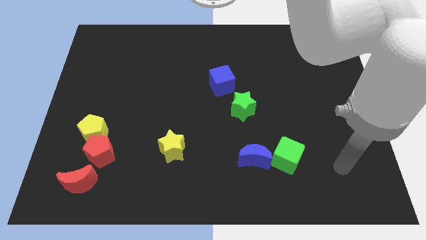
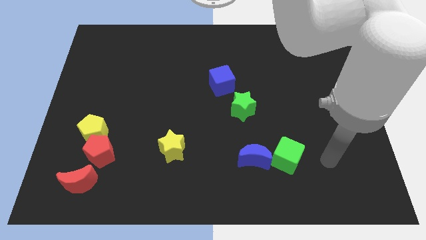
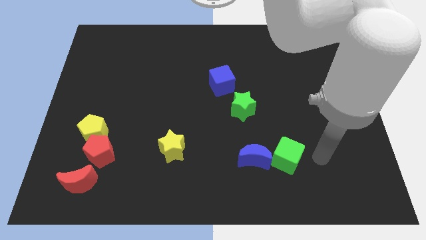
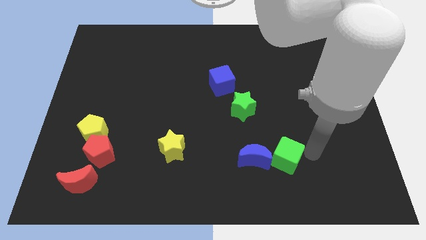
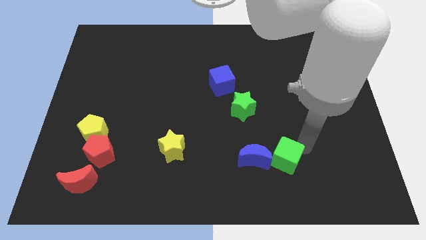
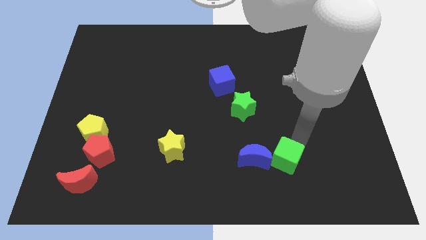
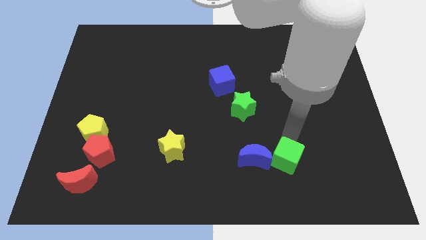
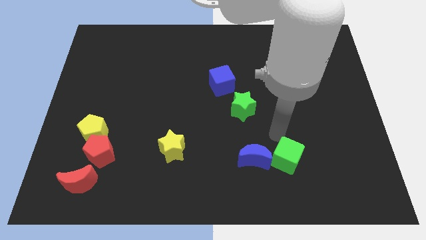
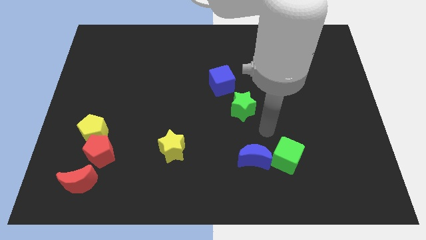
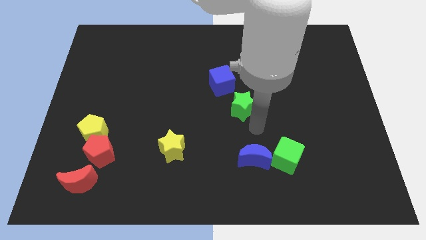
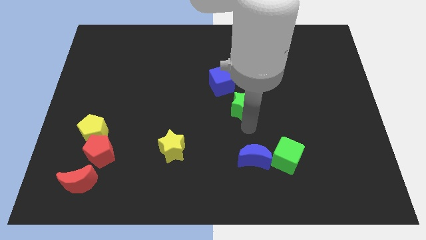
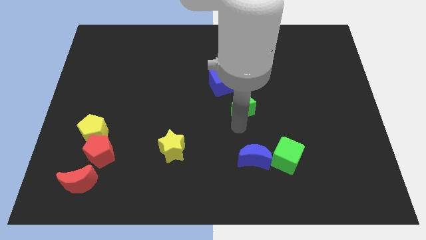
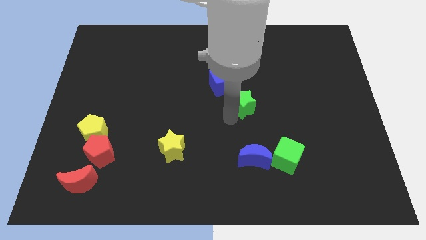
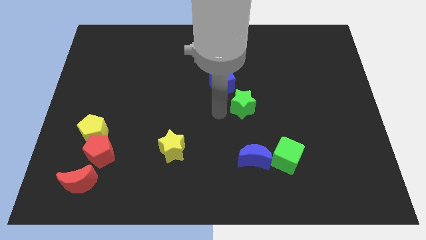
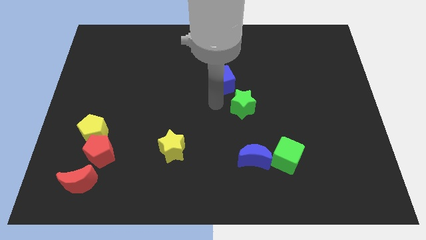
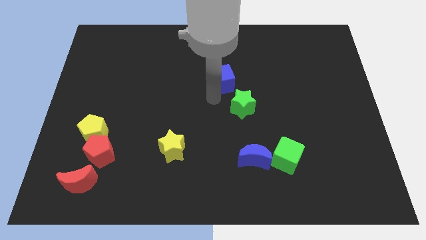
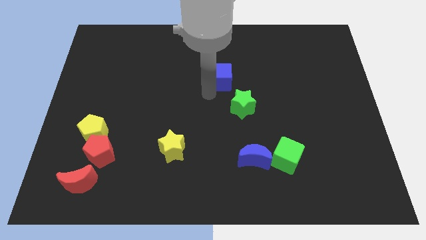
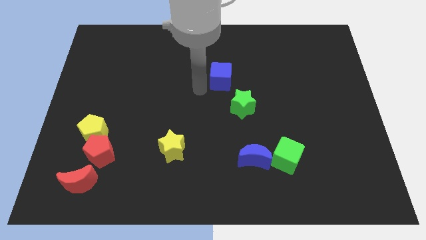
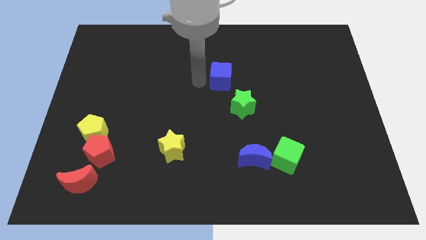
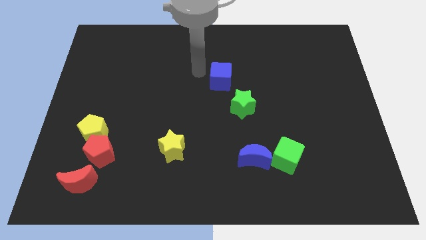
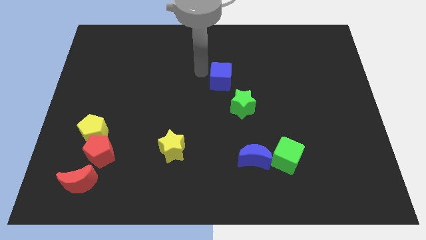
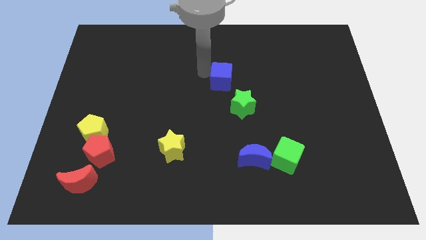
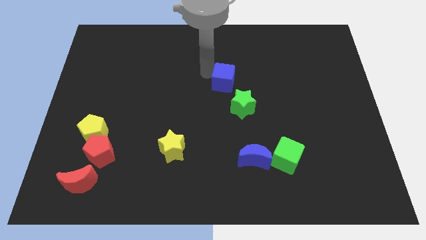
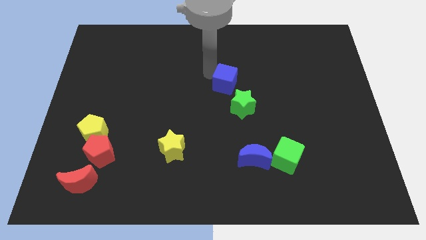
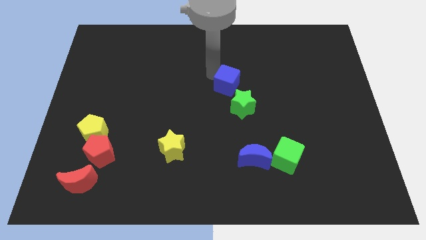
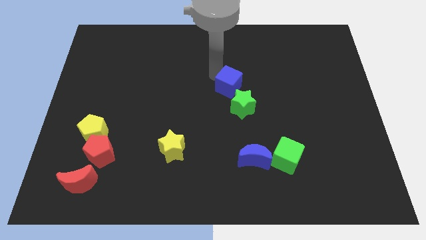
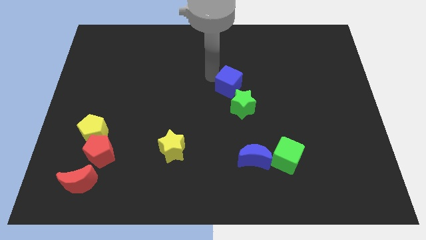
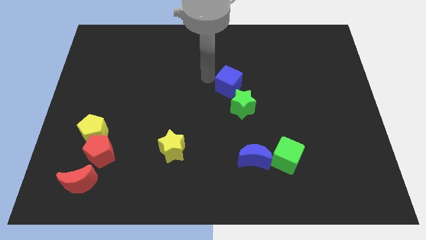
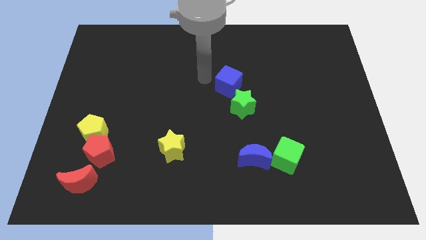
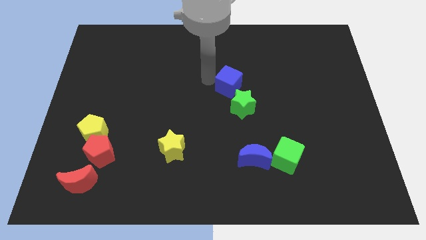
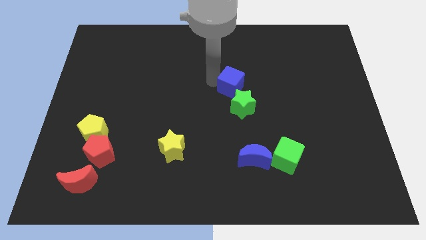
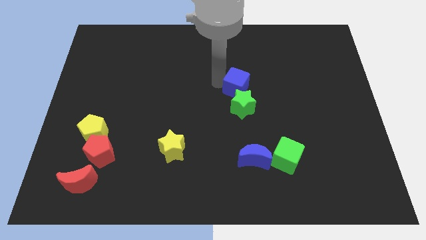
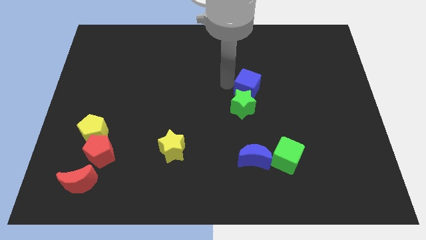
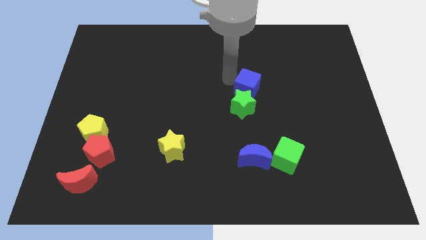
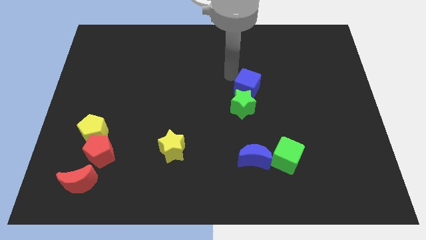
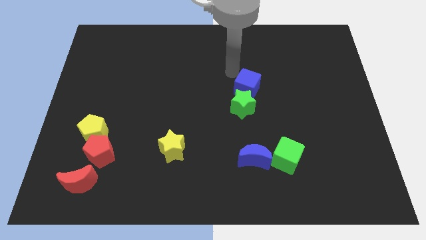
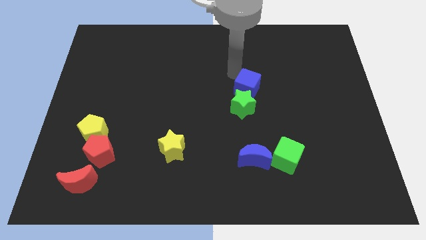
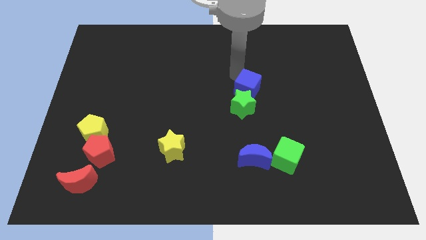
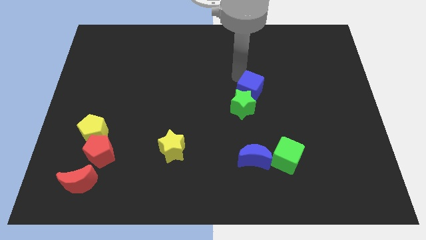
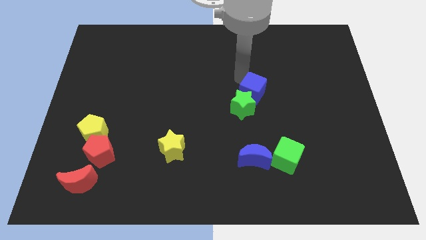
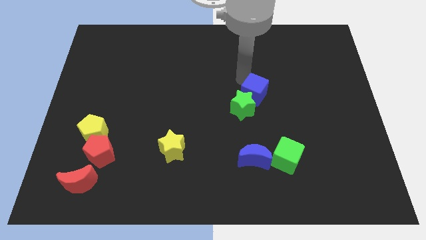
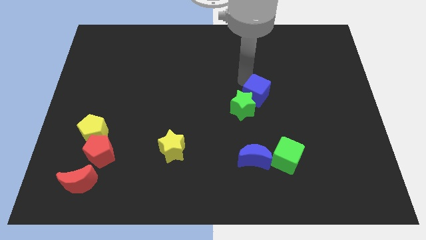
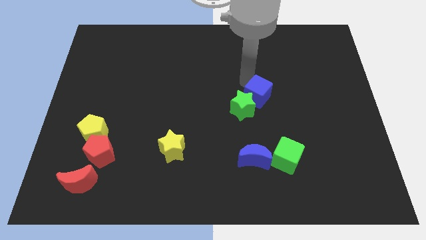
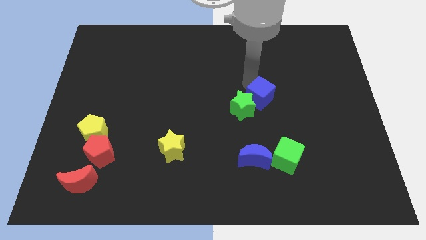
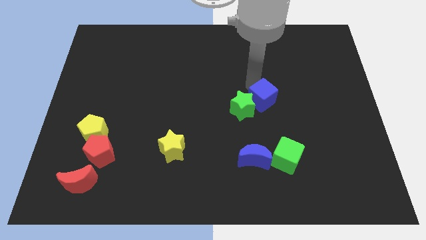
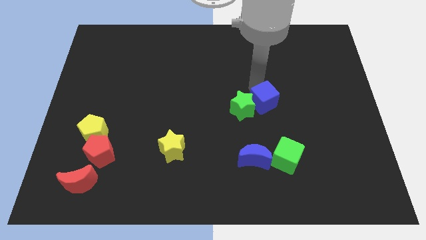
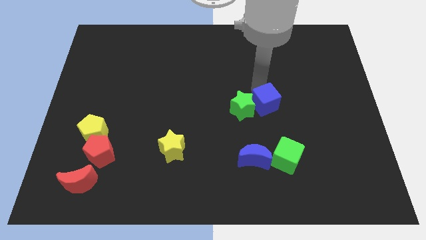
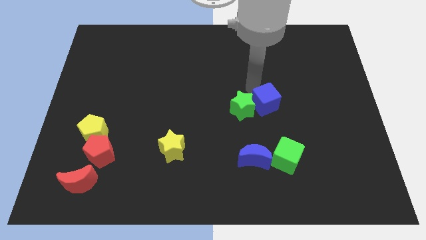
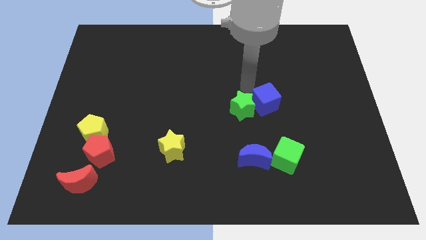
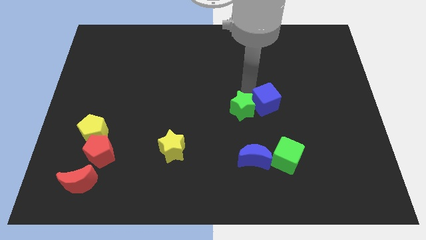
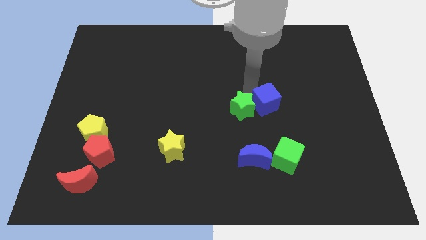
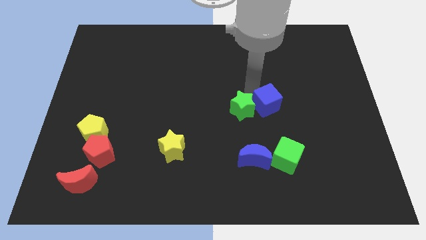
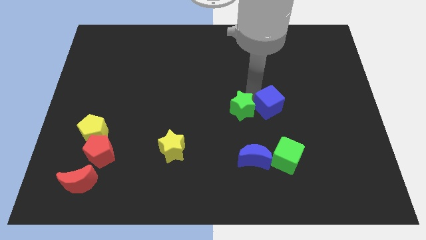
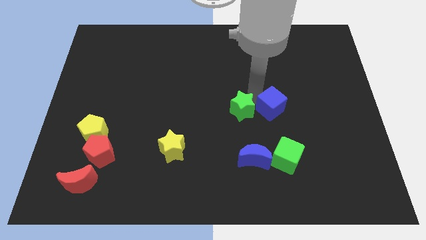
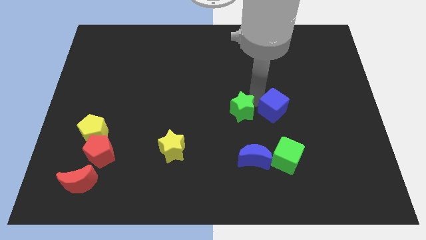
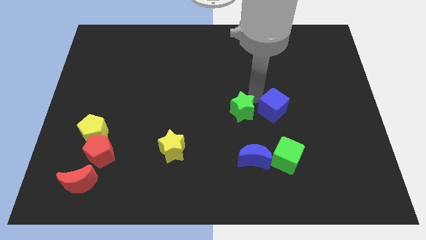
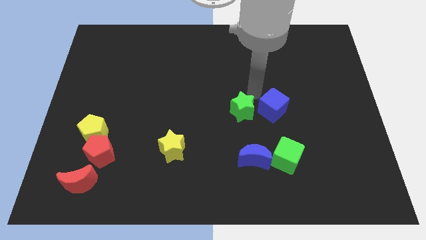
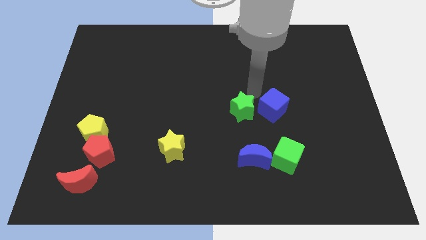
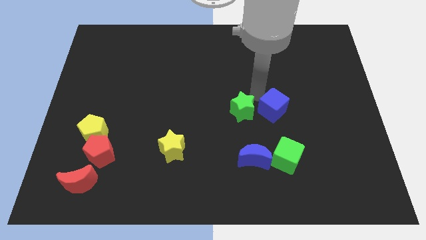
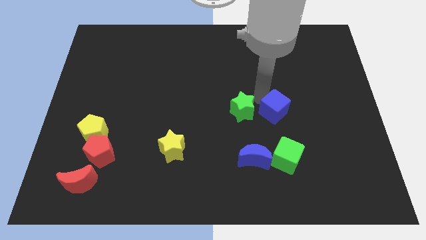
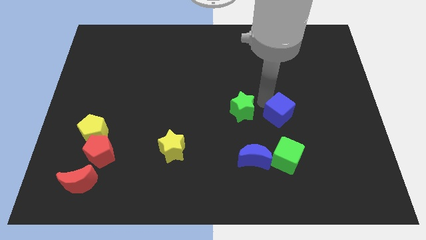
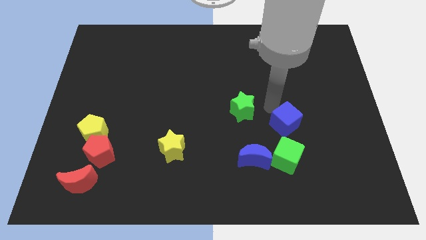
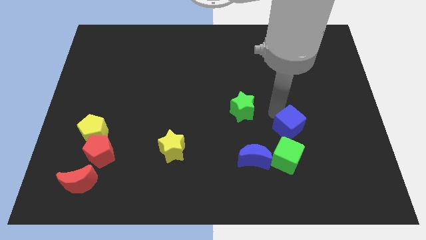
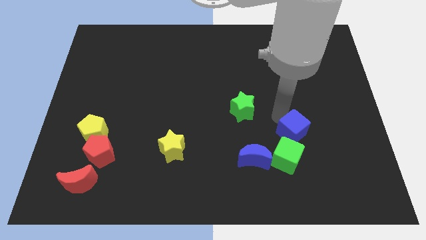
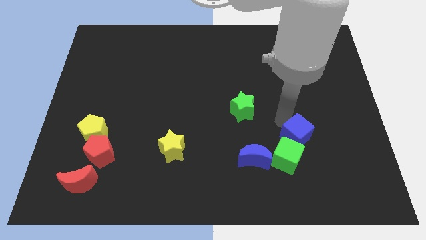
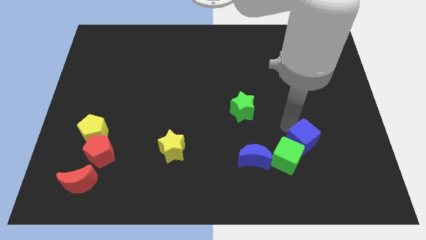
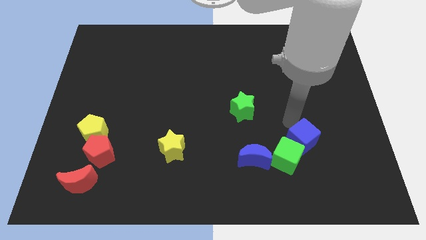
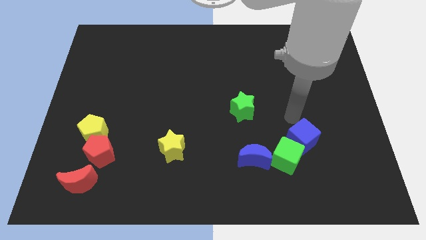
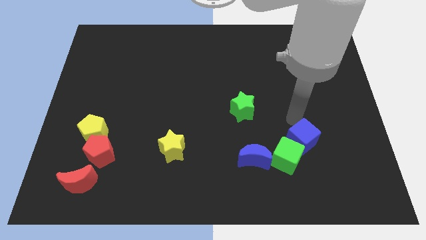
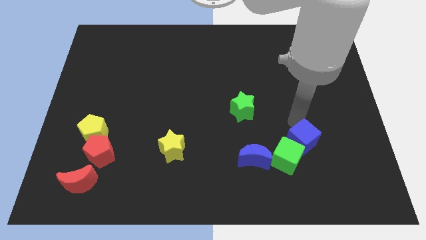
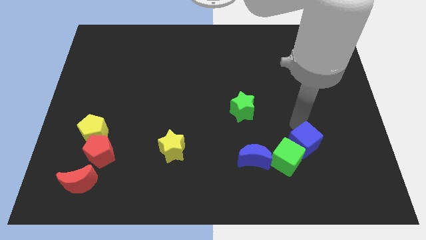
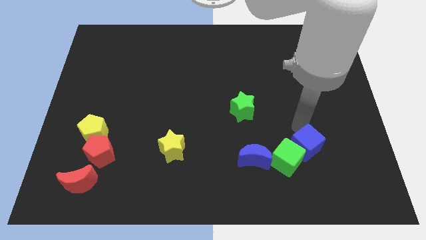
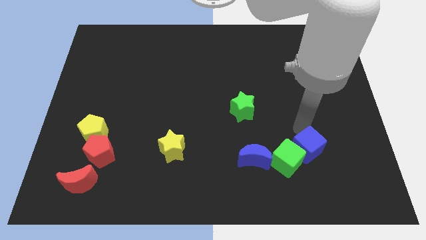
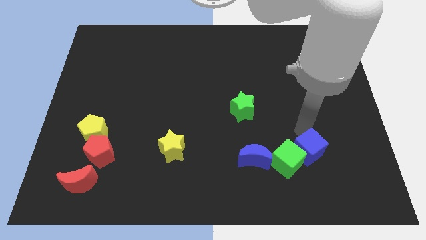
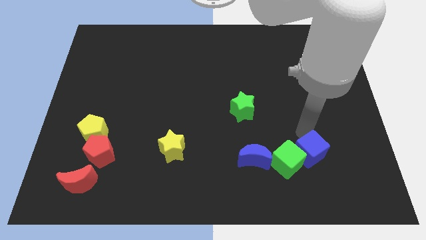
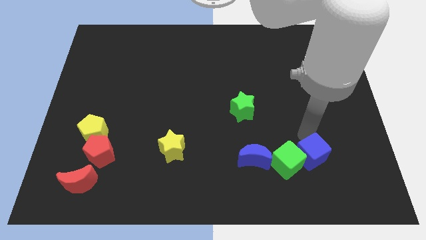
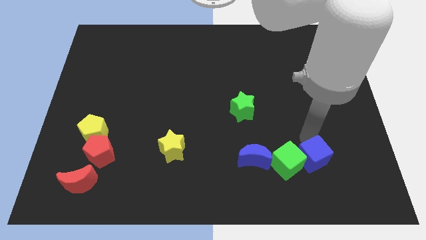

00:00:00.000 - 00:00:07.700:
move the blue cube to the bottom right of the green cube
